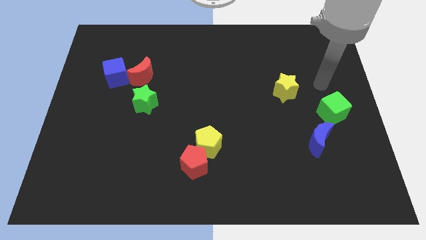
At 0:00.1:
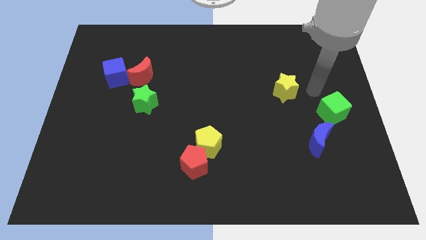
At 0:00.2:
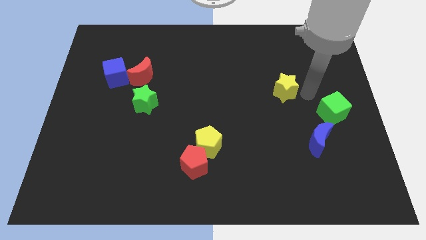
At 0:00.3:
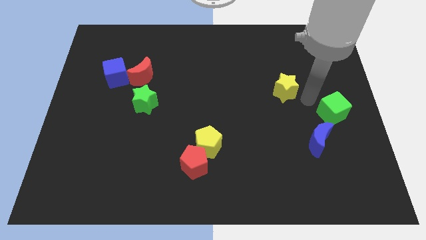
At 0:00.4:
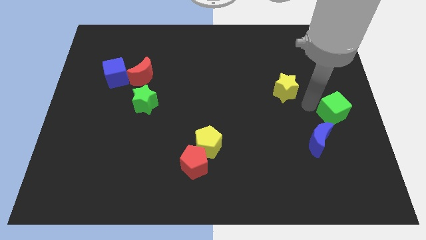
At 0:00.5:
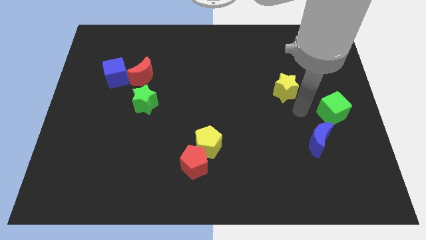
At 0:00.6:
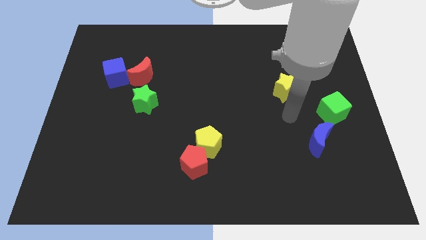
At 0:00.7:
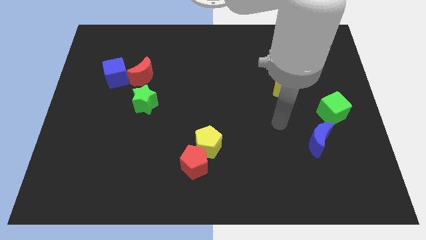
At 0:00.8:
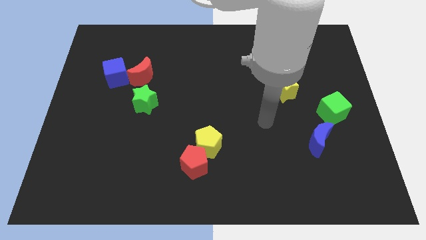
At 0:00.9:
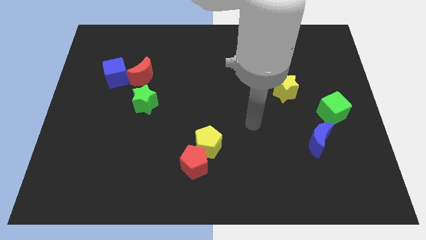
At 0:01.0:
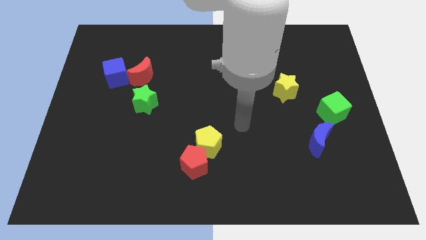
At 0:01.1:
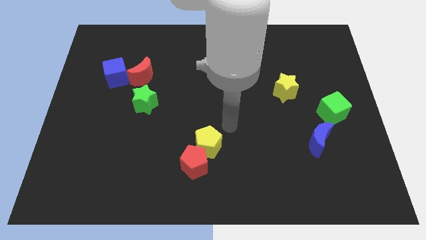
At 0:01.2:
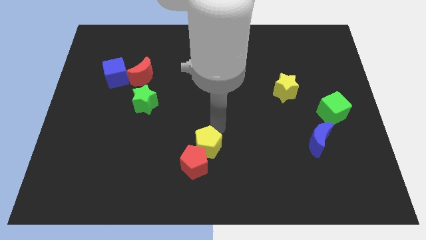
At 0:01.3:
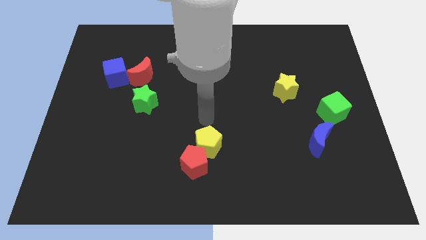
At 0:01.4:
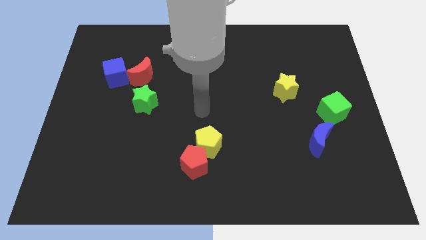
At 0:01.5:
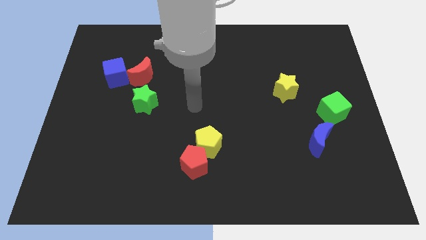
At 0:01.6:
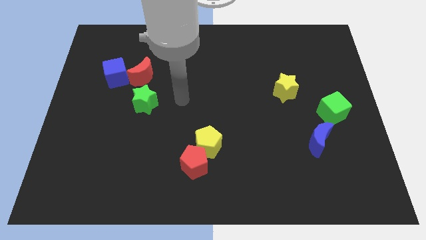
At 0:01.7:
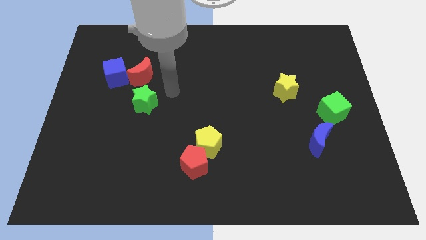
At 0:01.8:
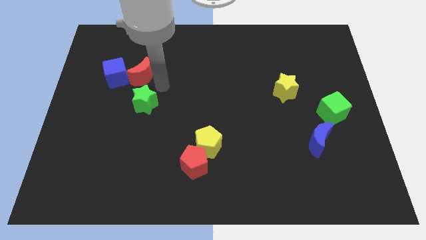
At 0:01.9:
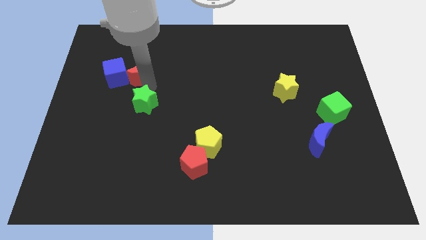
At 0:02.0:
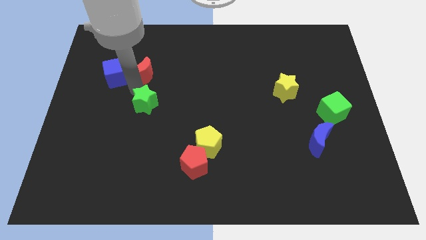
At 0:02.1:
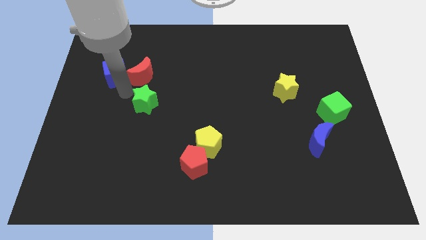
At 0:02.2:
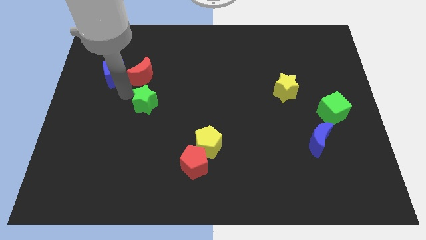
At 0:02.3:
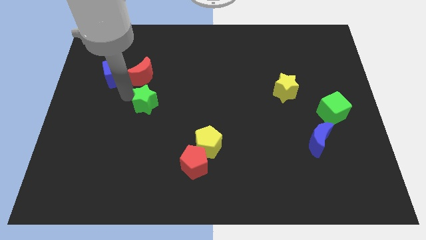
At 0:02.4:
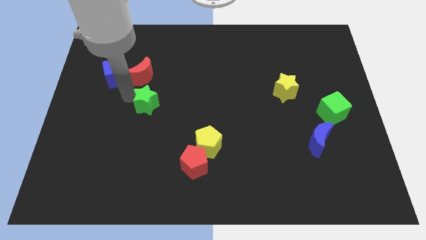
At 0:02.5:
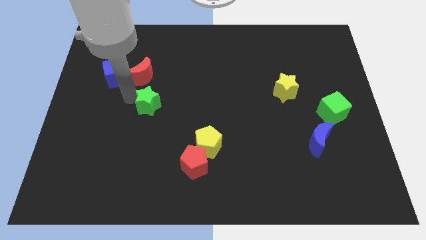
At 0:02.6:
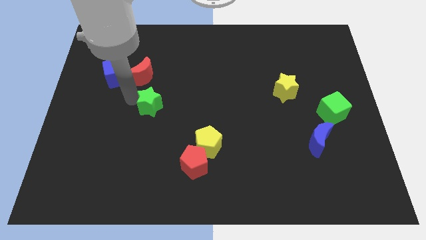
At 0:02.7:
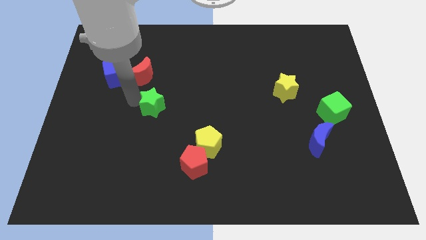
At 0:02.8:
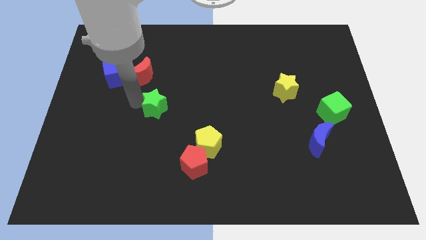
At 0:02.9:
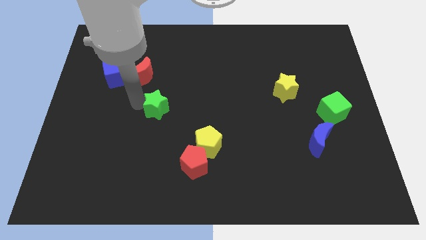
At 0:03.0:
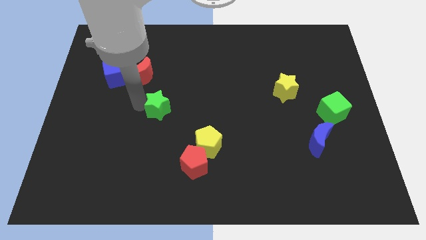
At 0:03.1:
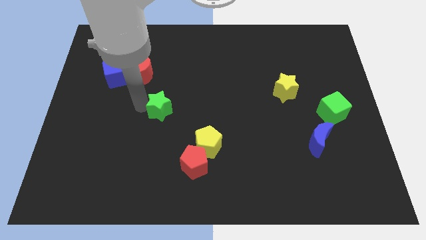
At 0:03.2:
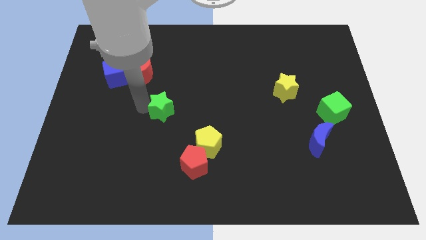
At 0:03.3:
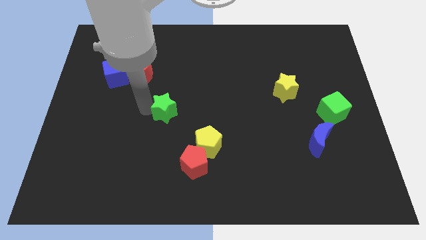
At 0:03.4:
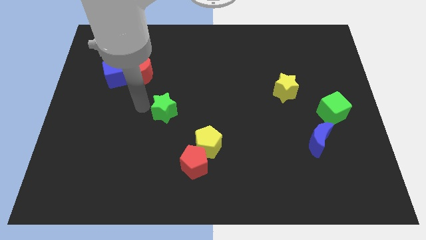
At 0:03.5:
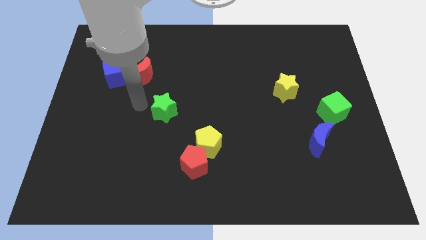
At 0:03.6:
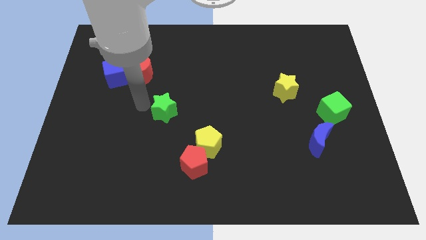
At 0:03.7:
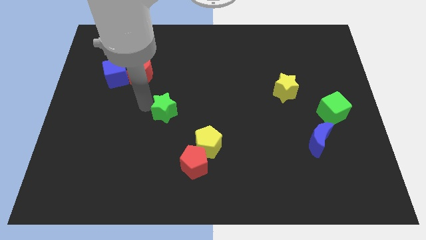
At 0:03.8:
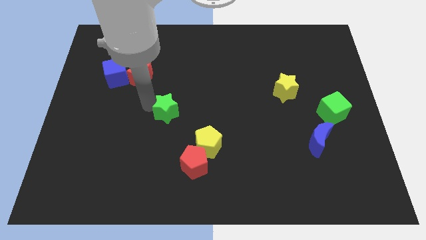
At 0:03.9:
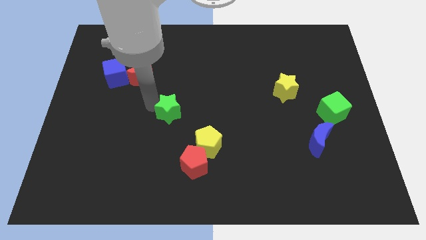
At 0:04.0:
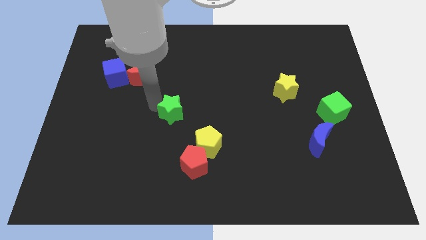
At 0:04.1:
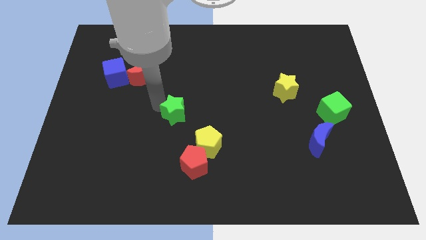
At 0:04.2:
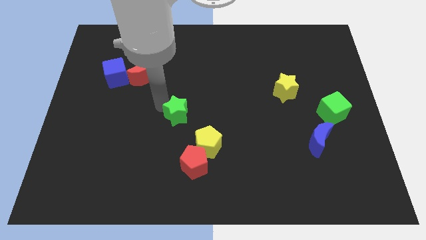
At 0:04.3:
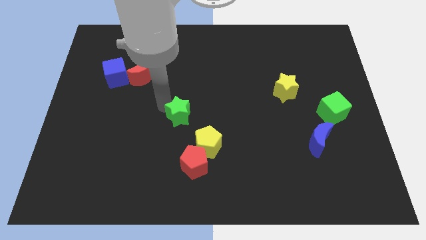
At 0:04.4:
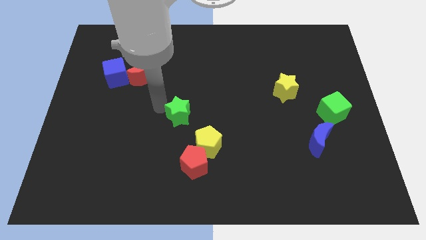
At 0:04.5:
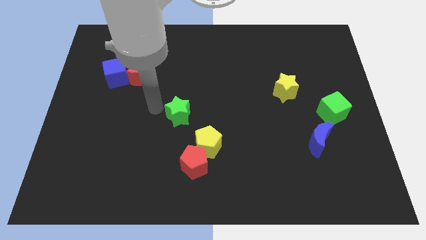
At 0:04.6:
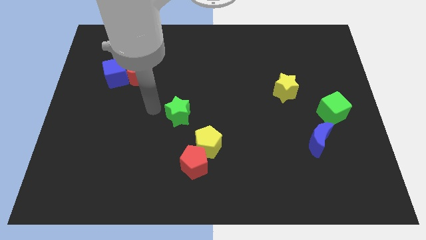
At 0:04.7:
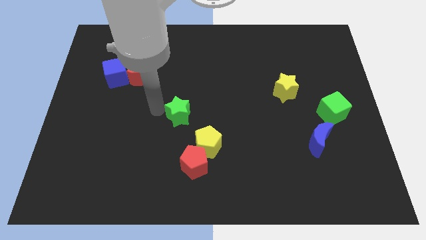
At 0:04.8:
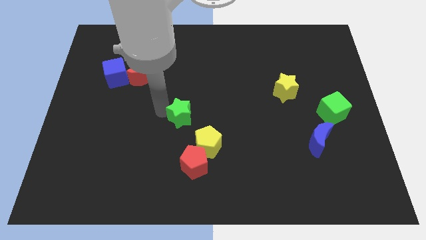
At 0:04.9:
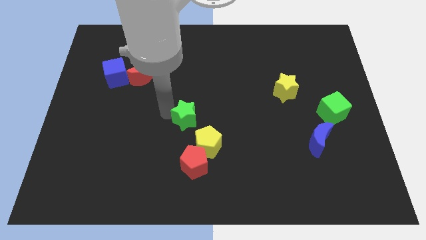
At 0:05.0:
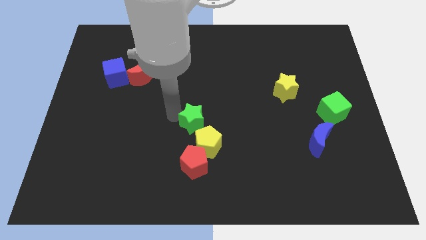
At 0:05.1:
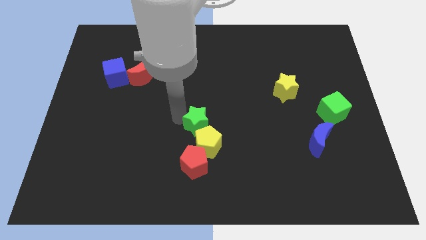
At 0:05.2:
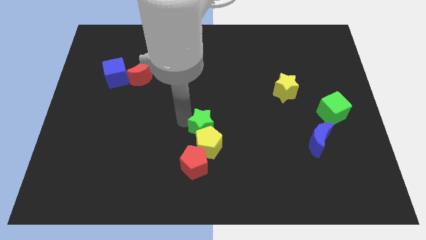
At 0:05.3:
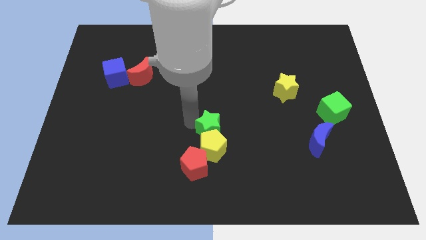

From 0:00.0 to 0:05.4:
move the green star to the top right of the red pentagon

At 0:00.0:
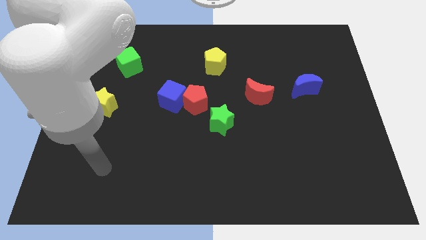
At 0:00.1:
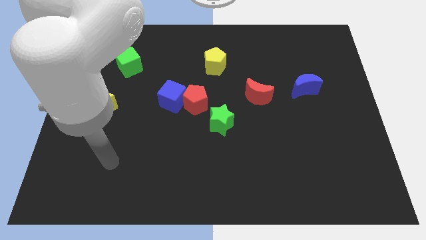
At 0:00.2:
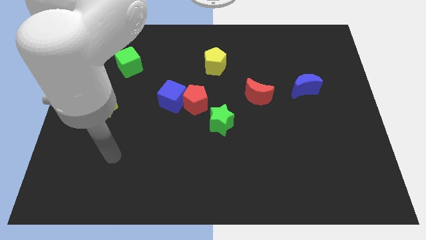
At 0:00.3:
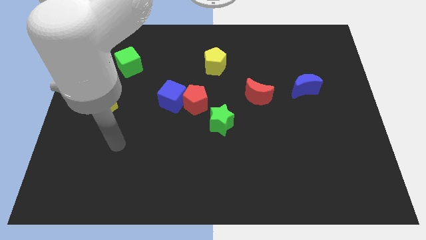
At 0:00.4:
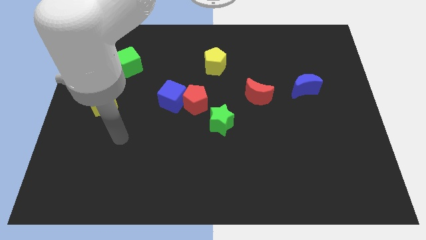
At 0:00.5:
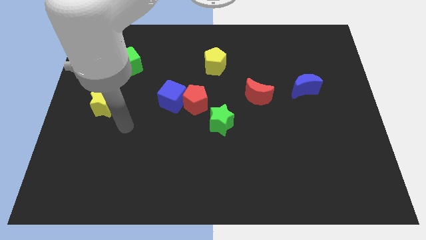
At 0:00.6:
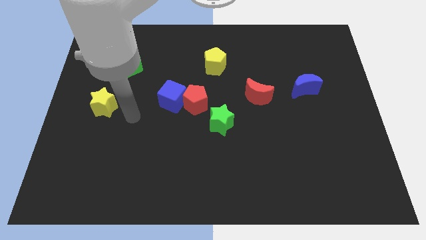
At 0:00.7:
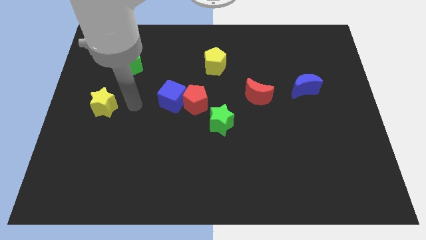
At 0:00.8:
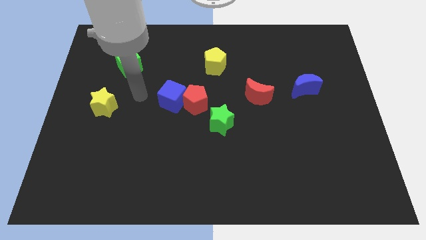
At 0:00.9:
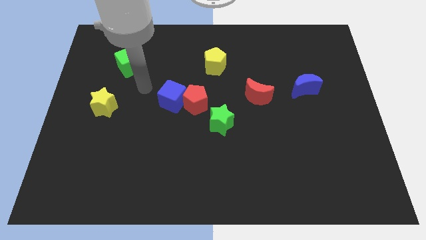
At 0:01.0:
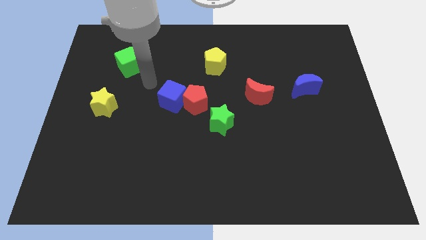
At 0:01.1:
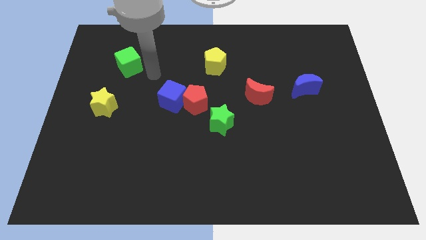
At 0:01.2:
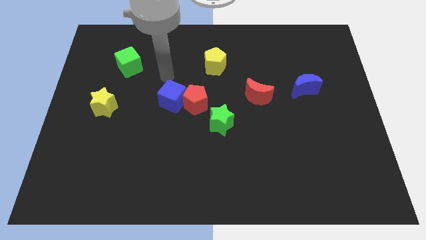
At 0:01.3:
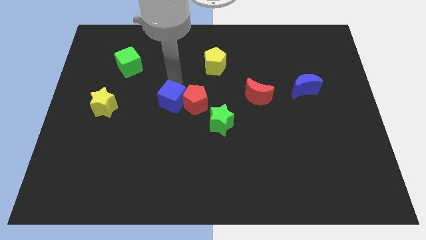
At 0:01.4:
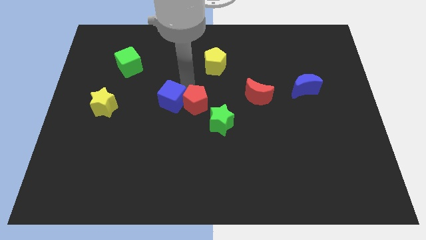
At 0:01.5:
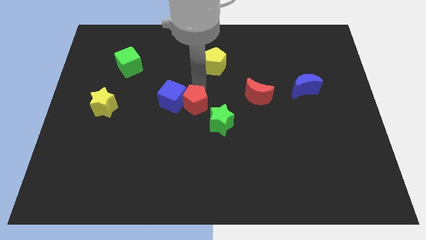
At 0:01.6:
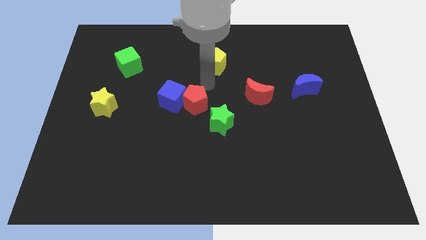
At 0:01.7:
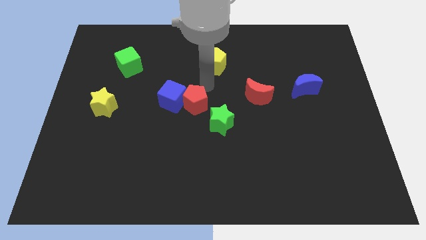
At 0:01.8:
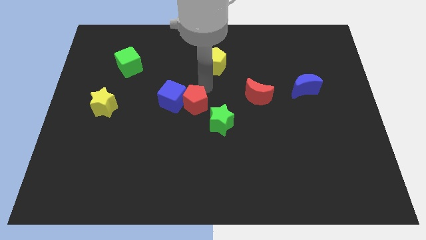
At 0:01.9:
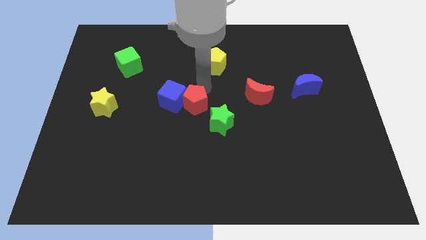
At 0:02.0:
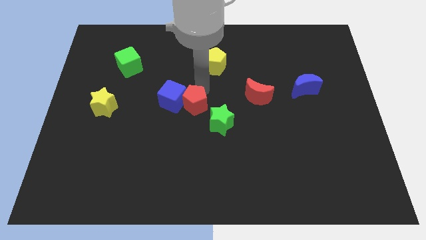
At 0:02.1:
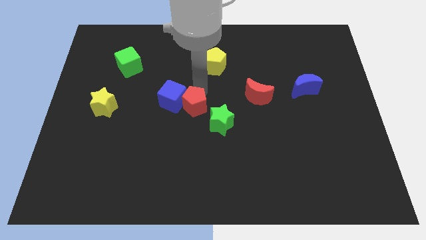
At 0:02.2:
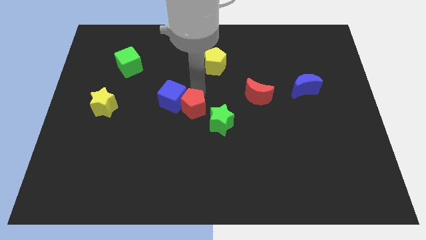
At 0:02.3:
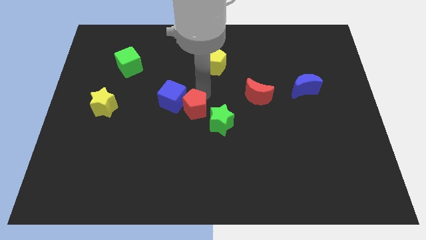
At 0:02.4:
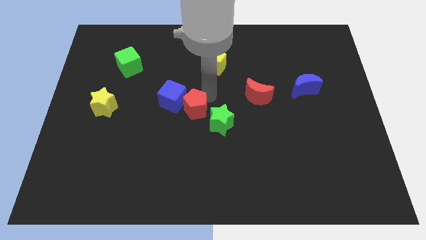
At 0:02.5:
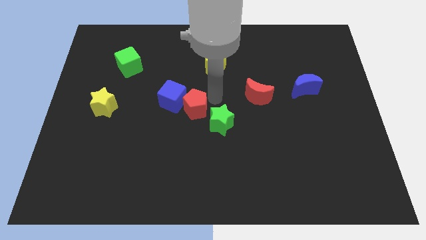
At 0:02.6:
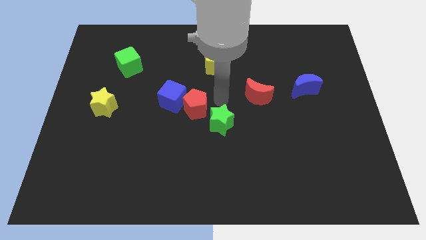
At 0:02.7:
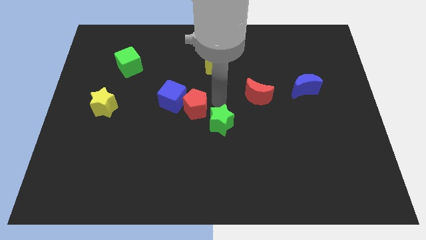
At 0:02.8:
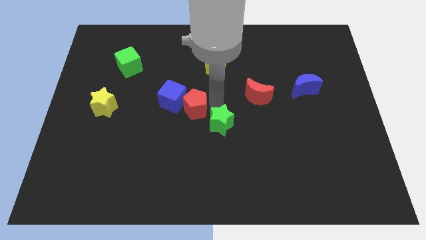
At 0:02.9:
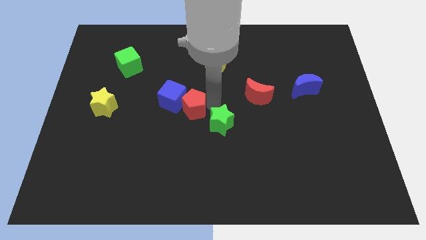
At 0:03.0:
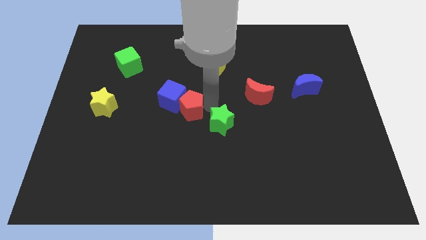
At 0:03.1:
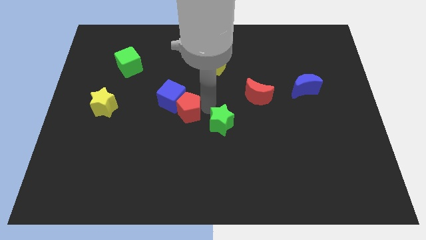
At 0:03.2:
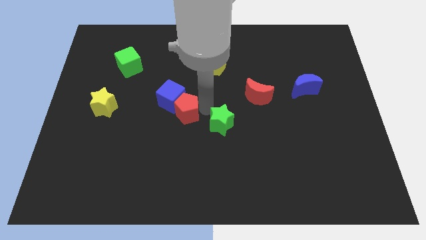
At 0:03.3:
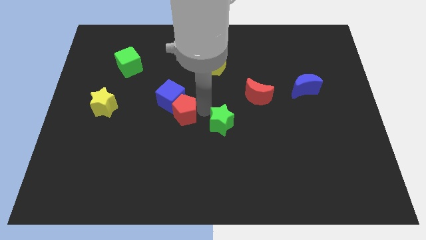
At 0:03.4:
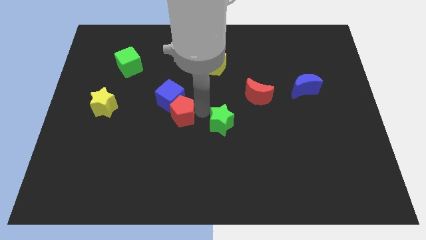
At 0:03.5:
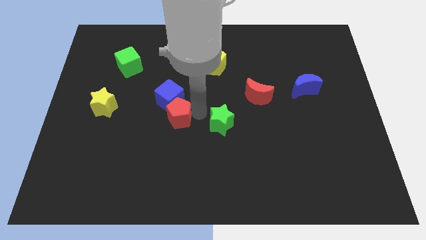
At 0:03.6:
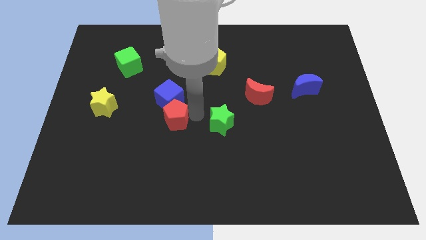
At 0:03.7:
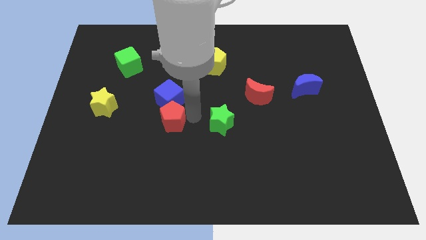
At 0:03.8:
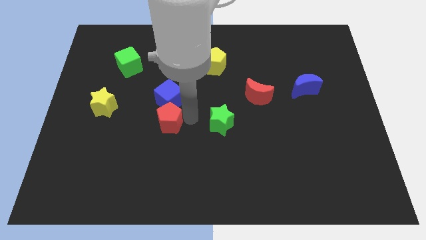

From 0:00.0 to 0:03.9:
put the red pentagon to the bottom left of the blue cube
